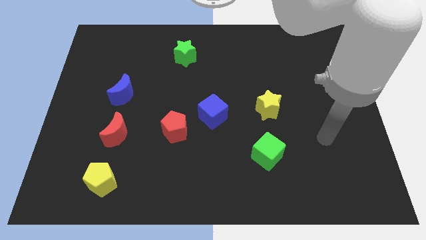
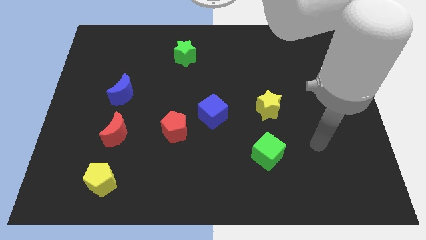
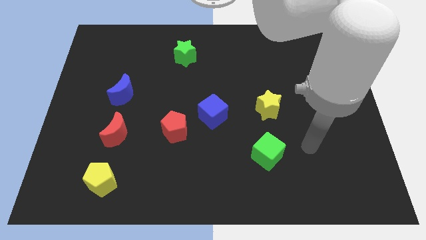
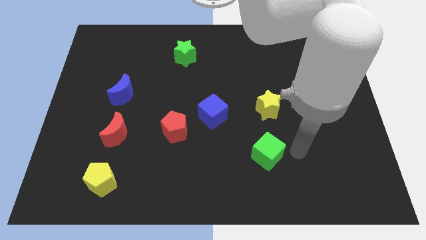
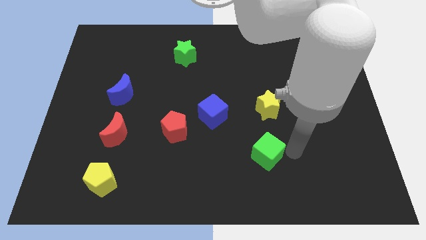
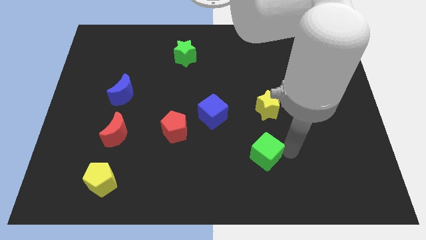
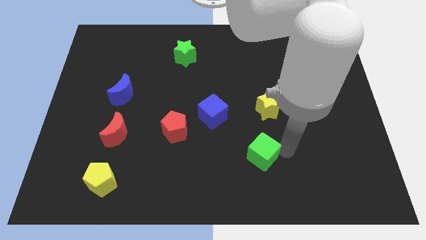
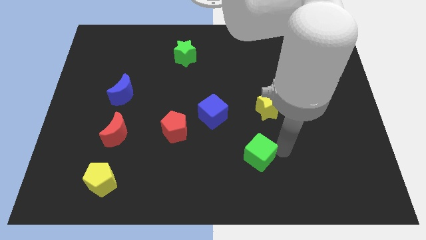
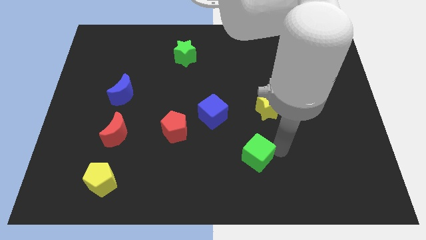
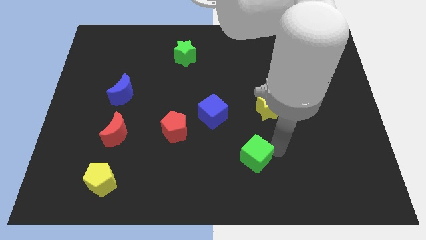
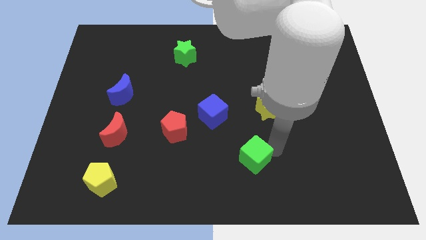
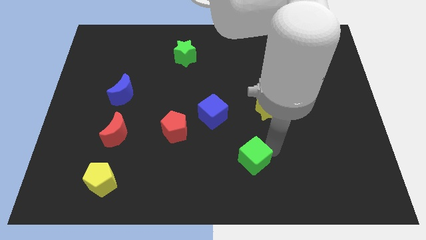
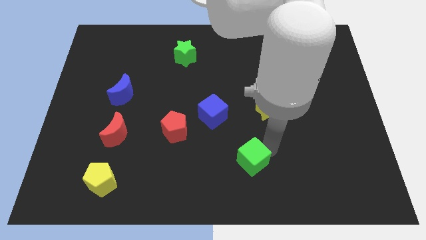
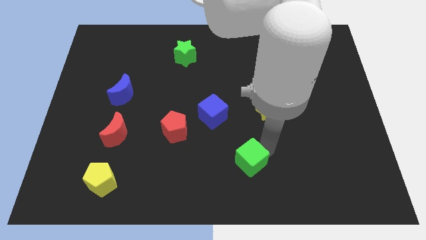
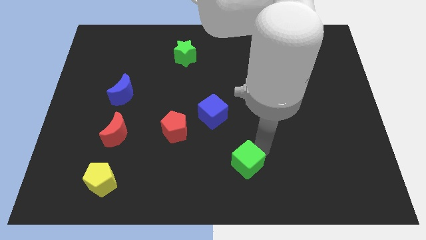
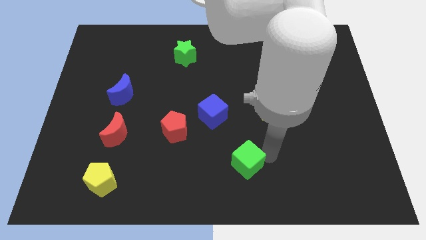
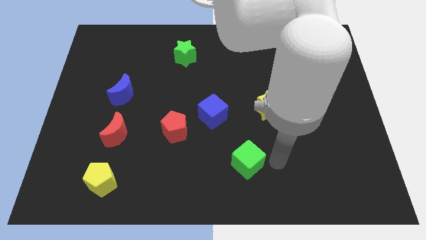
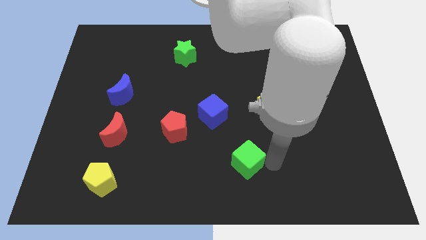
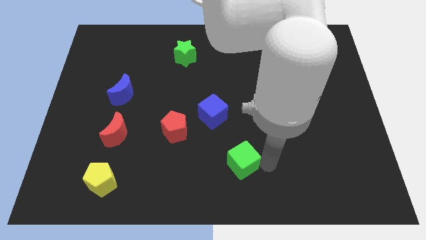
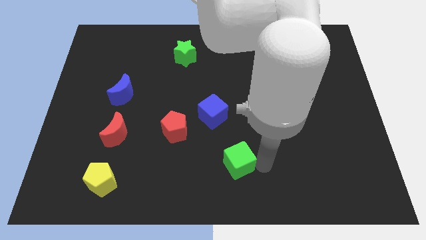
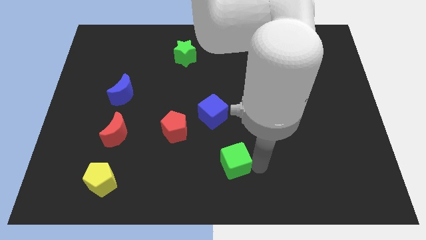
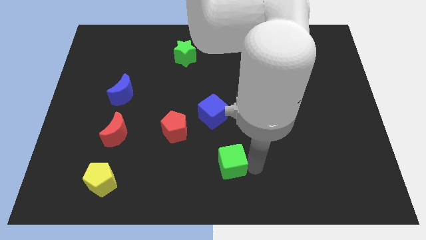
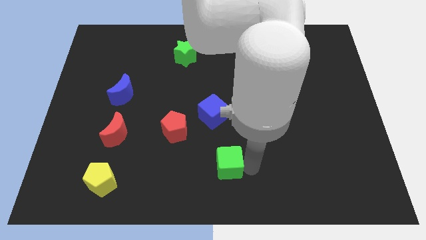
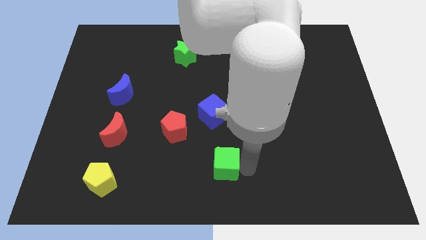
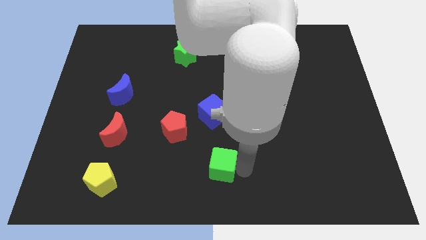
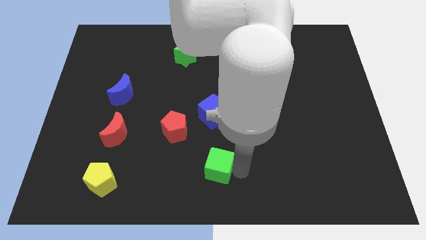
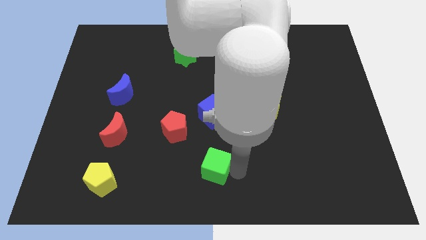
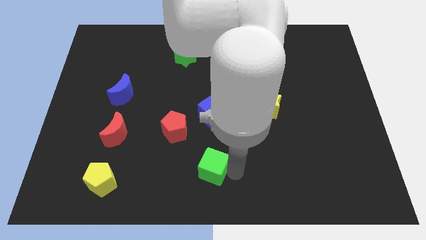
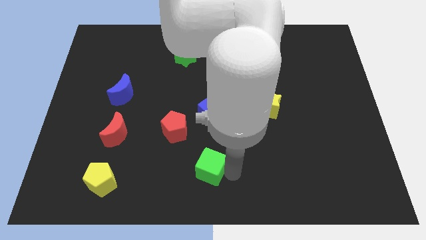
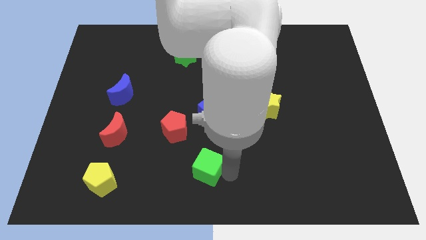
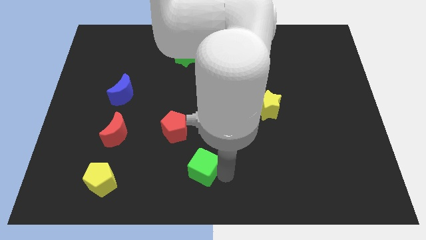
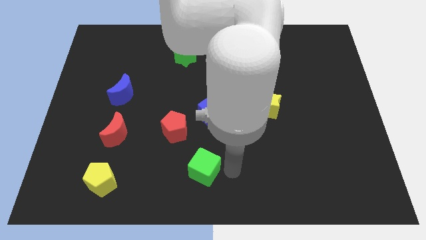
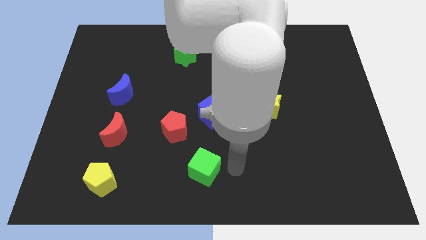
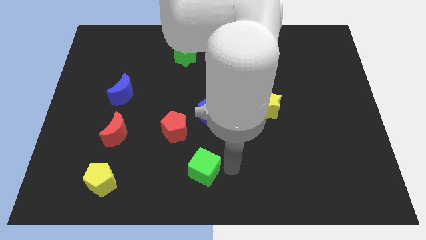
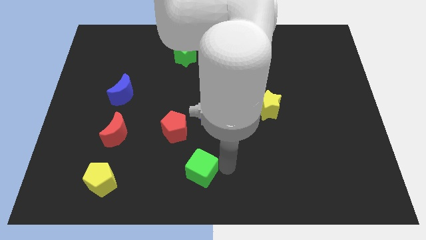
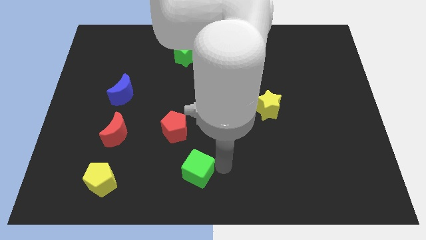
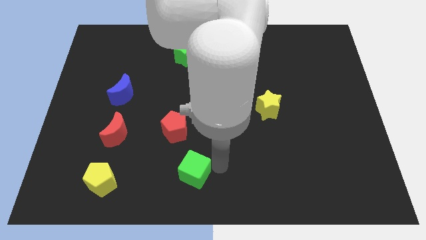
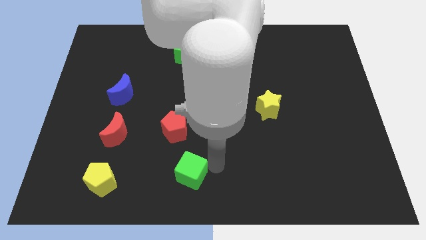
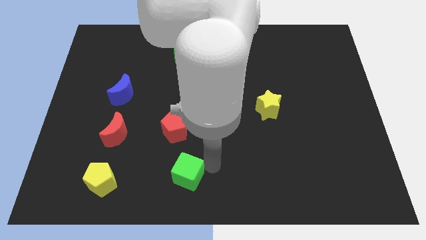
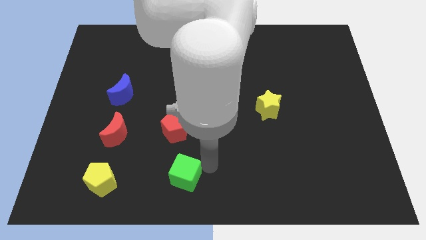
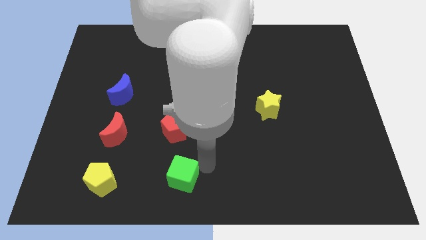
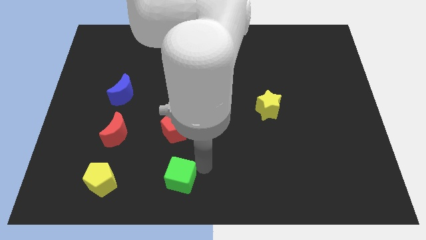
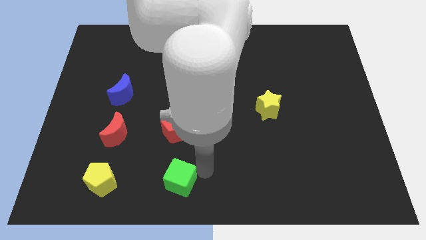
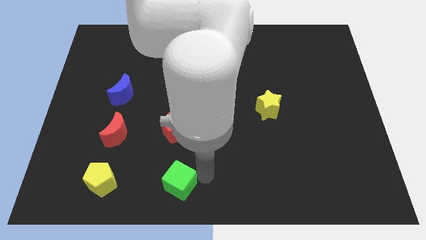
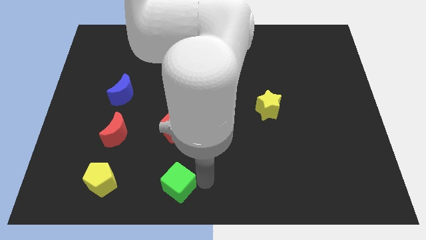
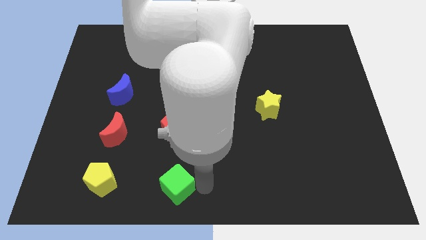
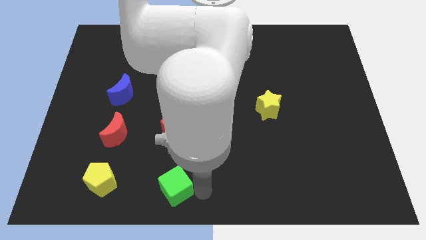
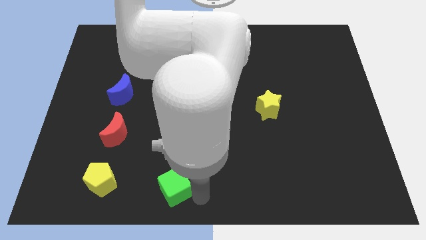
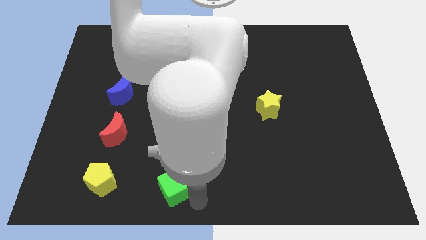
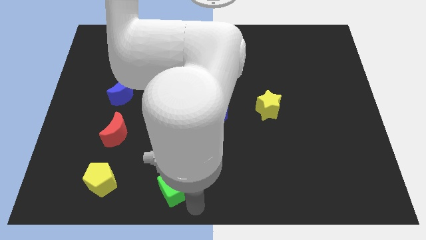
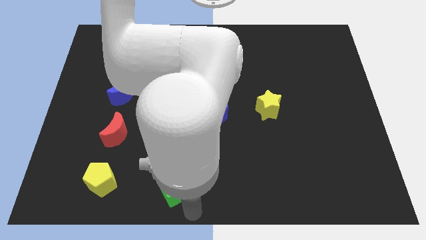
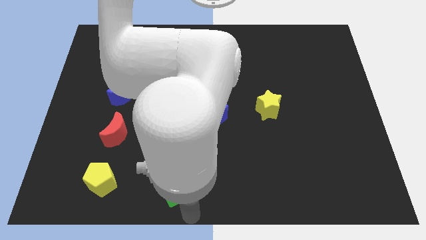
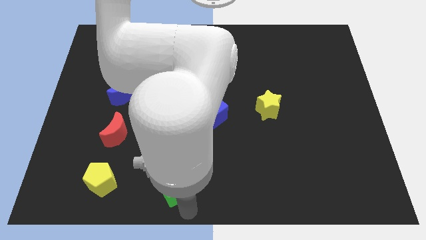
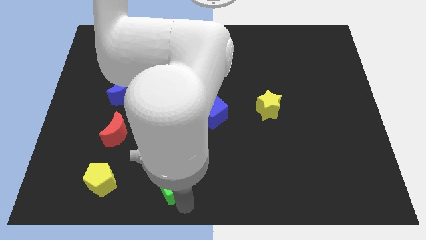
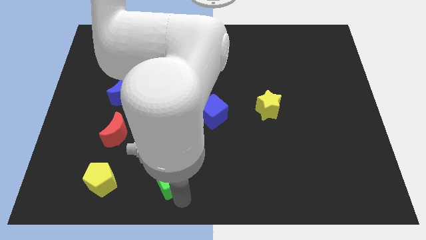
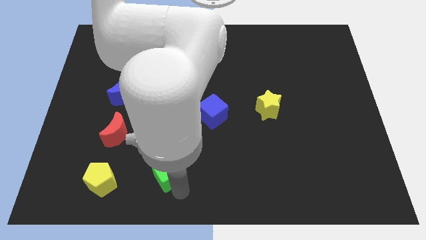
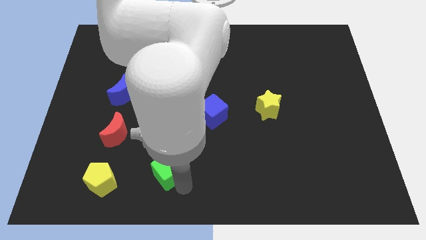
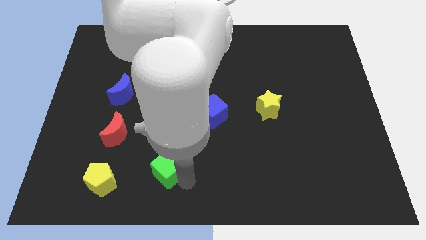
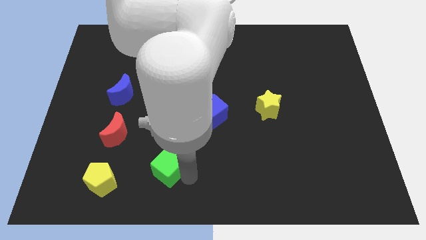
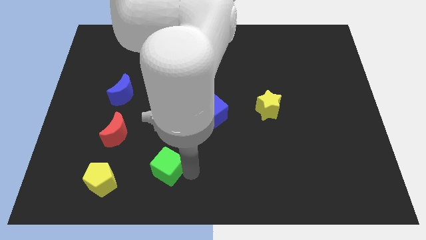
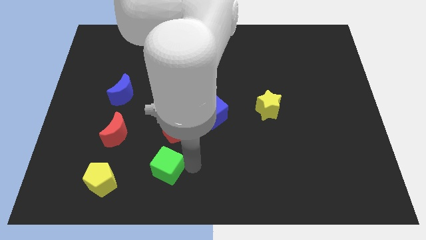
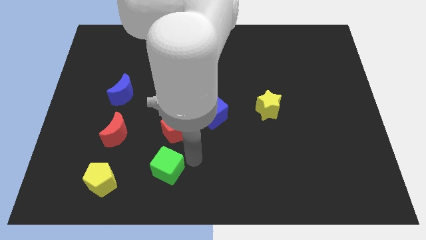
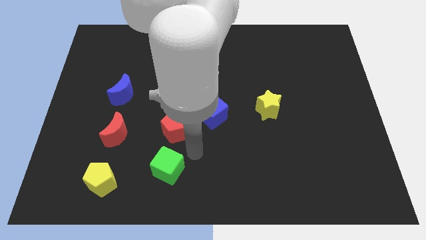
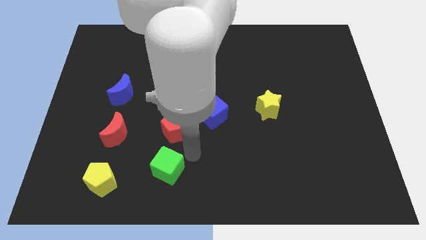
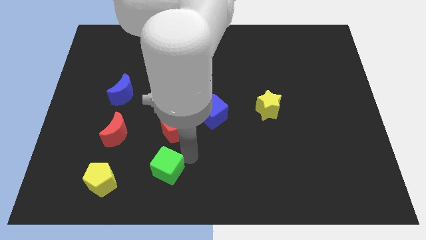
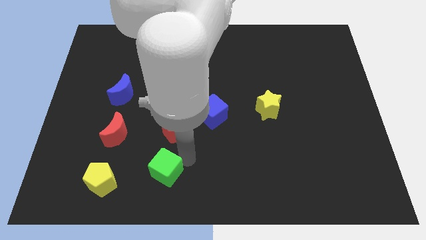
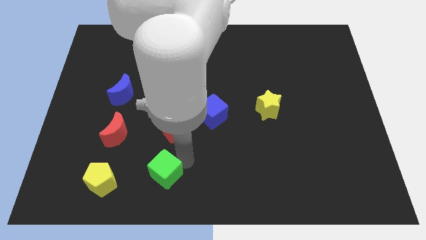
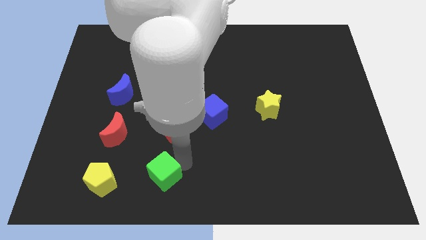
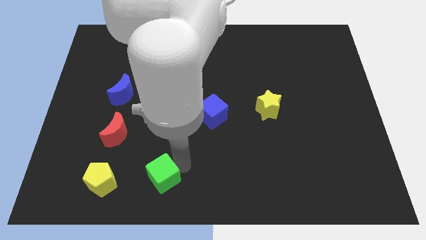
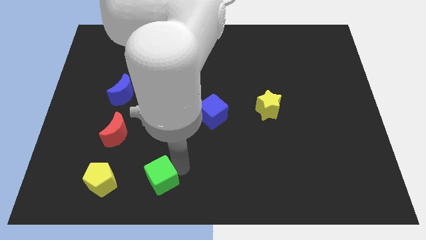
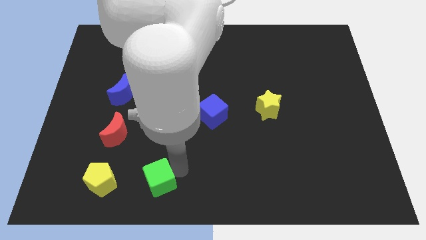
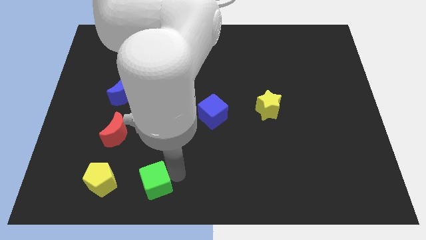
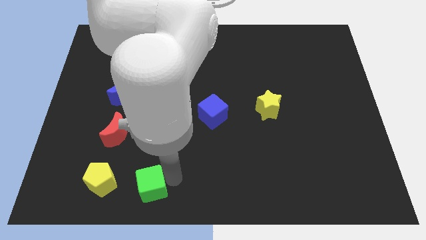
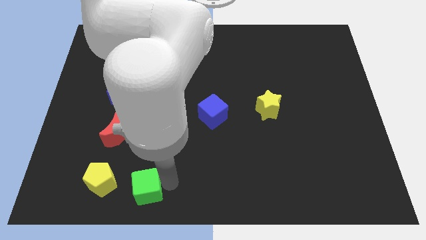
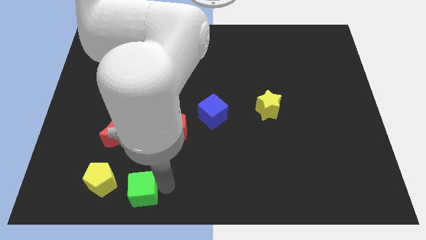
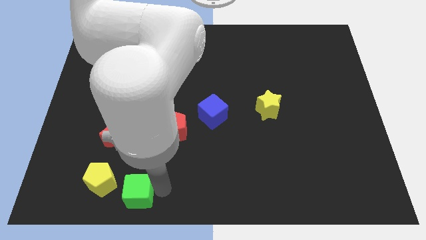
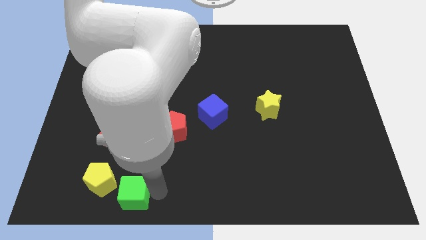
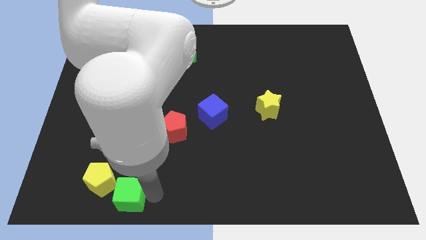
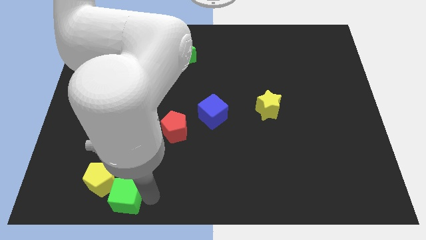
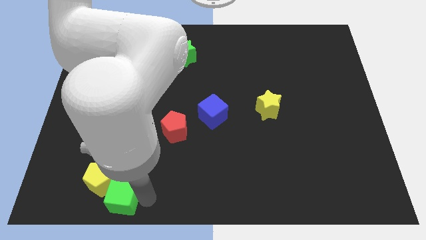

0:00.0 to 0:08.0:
push the green cube close to the yellow pentagon
